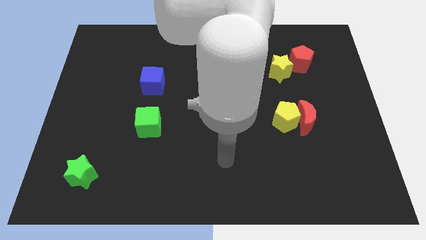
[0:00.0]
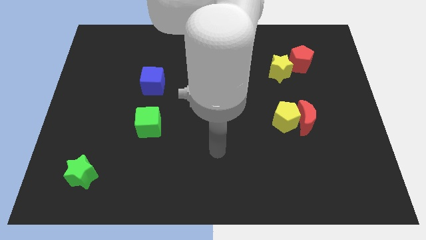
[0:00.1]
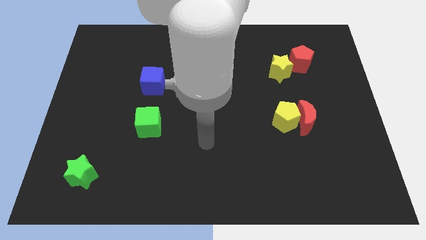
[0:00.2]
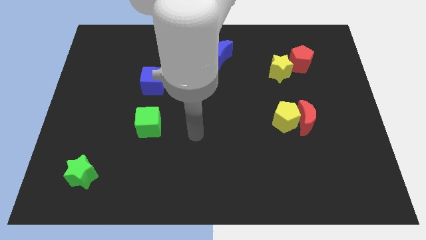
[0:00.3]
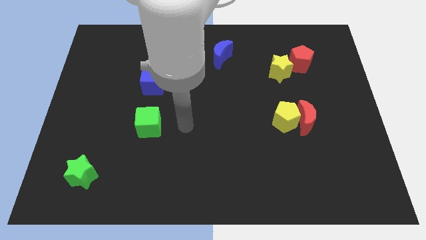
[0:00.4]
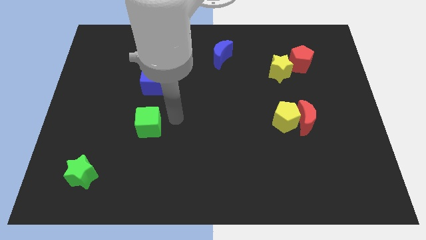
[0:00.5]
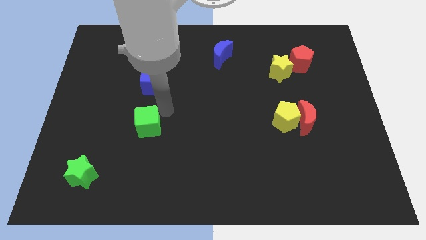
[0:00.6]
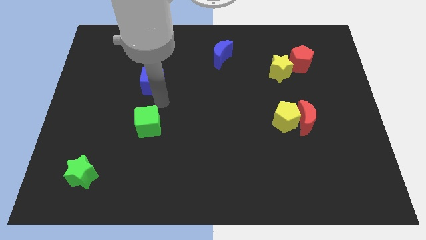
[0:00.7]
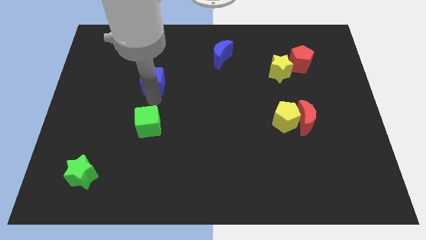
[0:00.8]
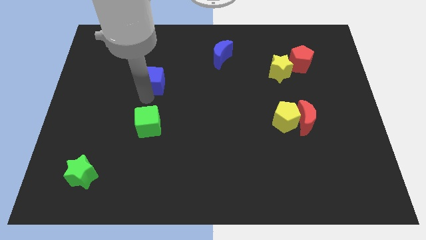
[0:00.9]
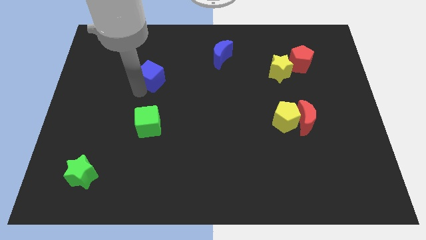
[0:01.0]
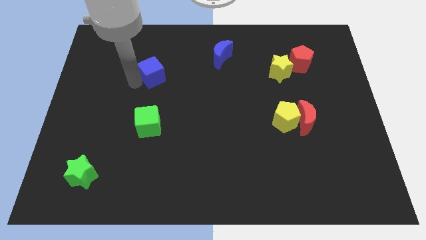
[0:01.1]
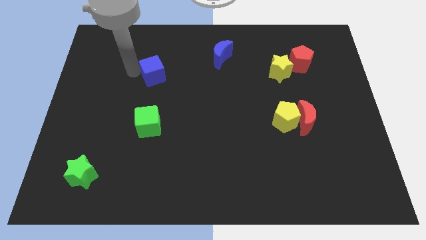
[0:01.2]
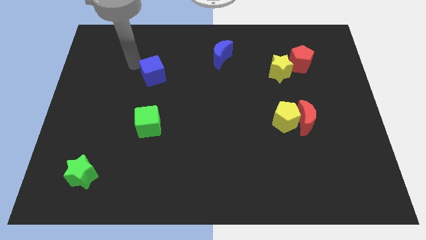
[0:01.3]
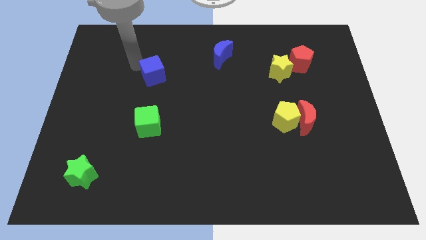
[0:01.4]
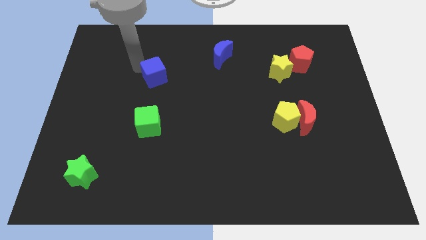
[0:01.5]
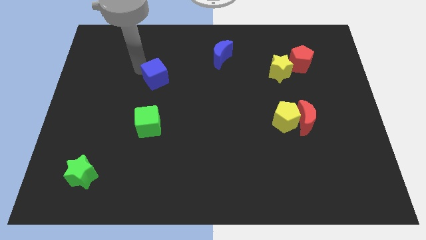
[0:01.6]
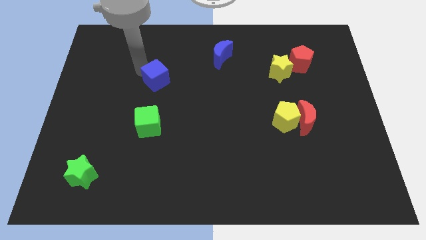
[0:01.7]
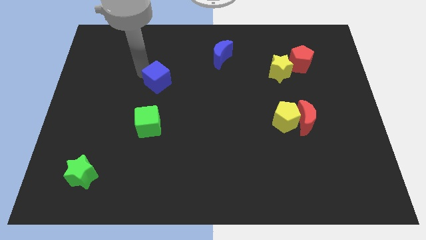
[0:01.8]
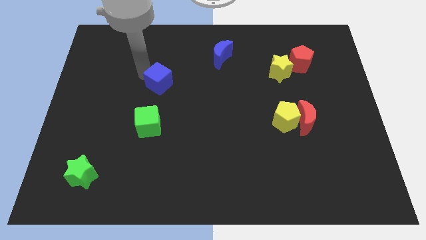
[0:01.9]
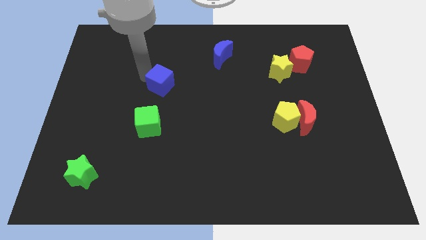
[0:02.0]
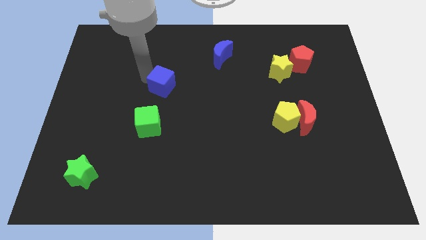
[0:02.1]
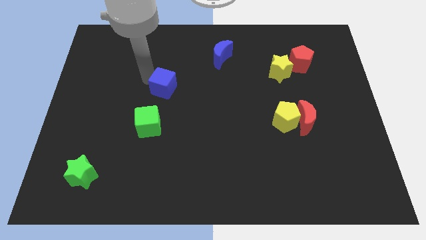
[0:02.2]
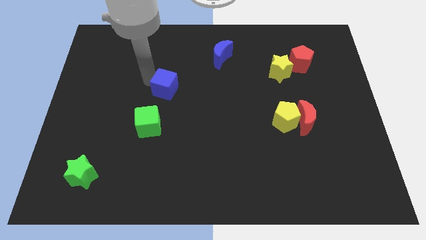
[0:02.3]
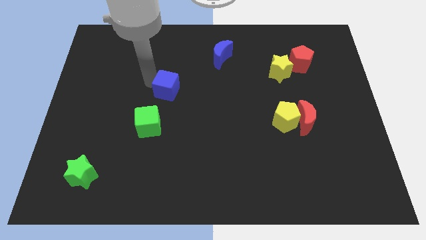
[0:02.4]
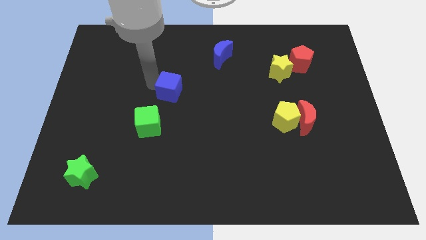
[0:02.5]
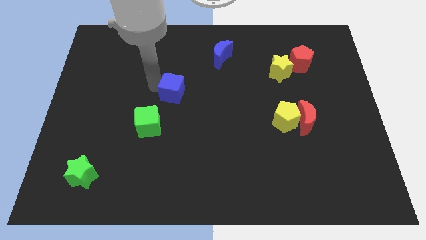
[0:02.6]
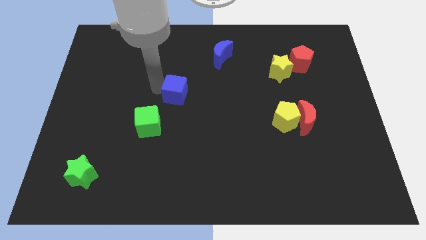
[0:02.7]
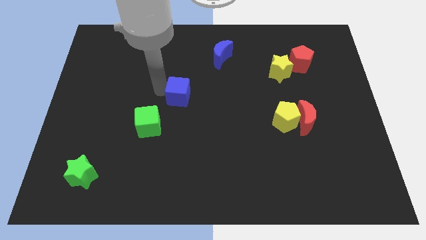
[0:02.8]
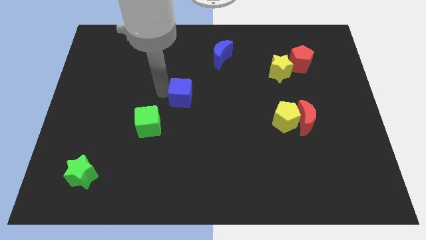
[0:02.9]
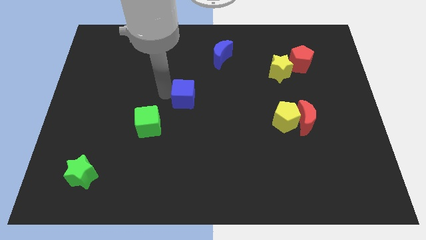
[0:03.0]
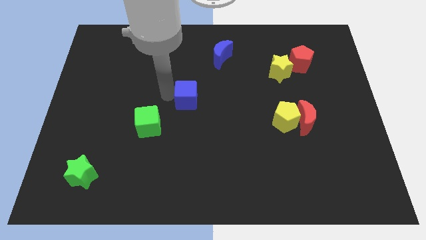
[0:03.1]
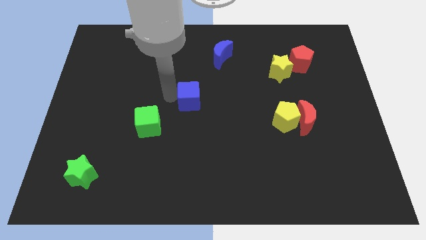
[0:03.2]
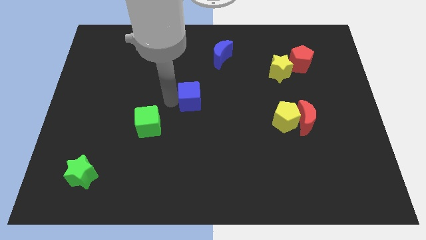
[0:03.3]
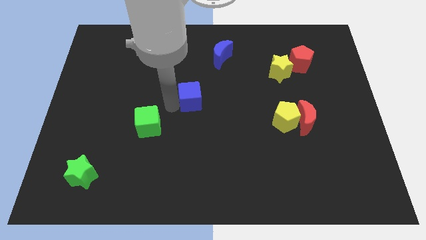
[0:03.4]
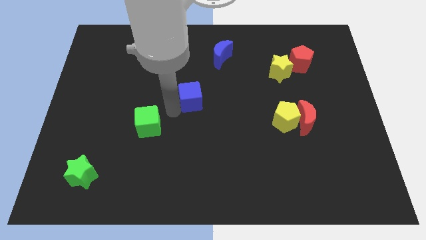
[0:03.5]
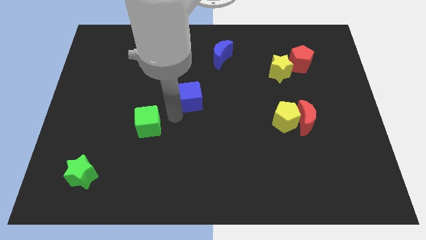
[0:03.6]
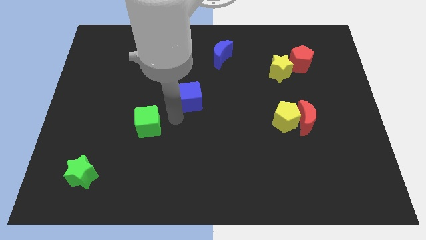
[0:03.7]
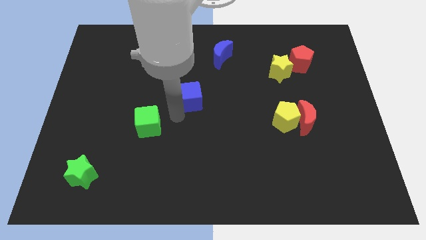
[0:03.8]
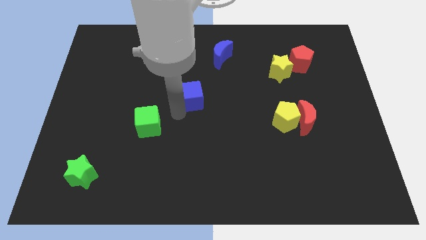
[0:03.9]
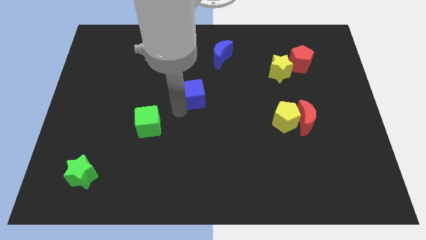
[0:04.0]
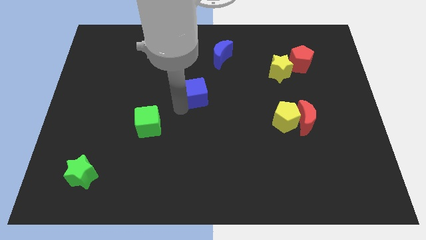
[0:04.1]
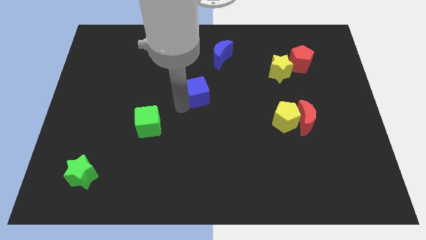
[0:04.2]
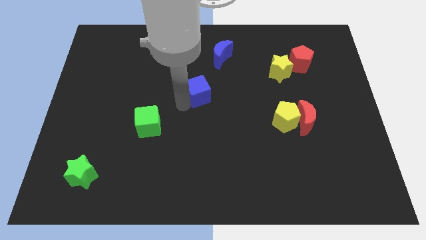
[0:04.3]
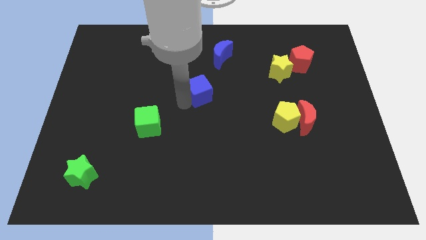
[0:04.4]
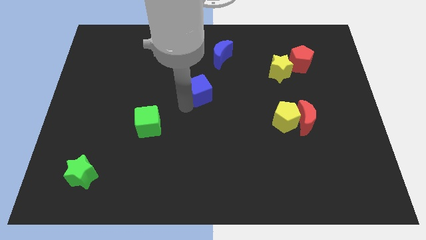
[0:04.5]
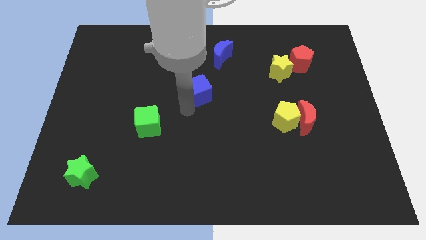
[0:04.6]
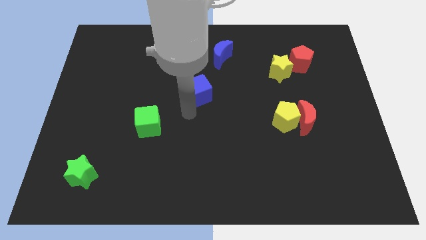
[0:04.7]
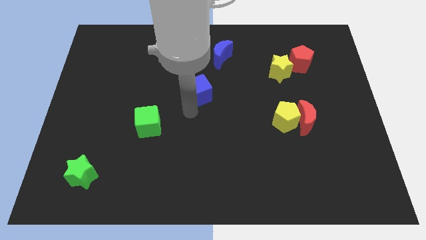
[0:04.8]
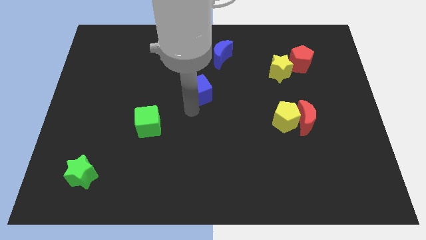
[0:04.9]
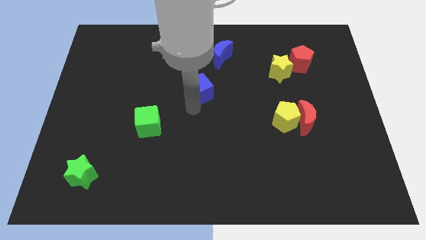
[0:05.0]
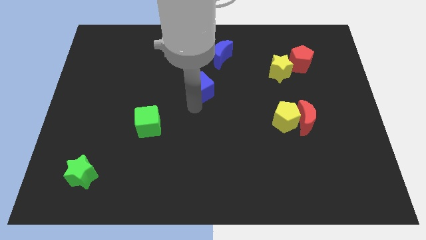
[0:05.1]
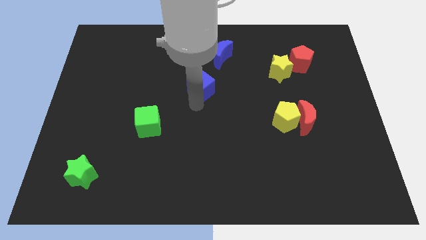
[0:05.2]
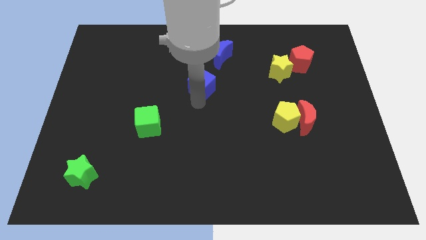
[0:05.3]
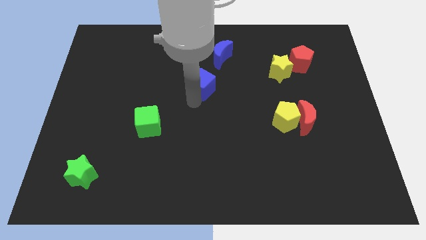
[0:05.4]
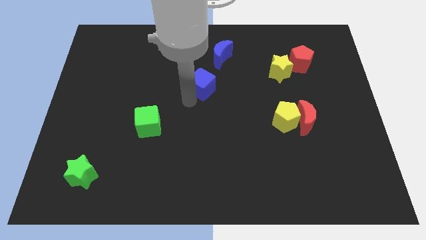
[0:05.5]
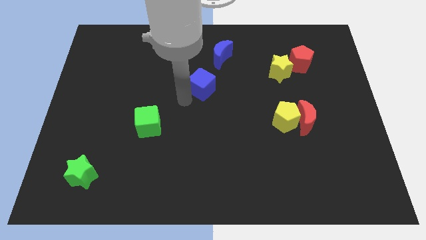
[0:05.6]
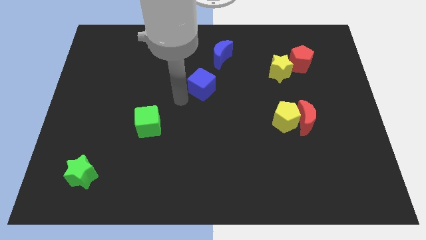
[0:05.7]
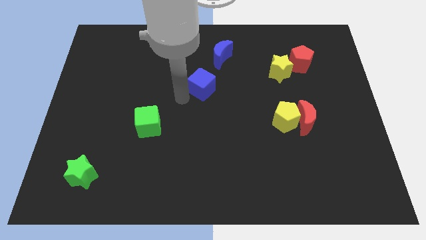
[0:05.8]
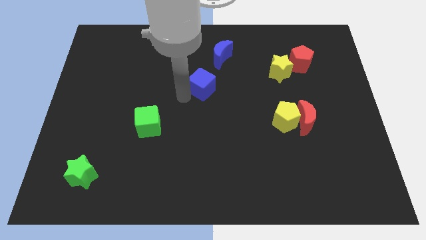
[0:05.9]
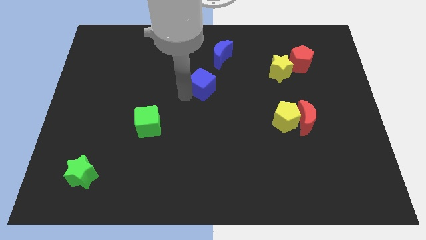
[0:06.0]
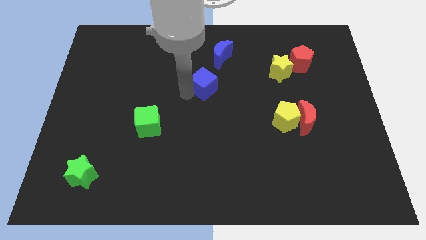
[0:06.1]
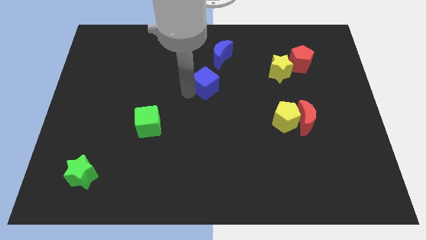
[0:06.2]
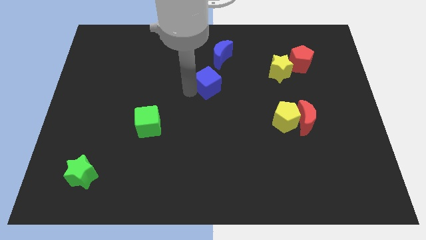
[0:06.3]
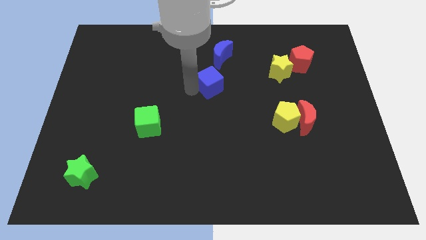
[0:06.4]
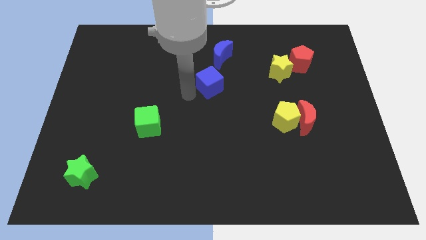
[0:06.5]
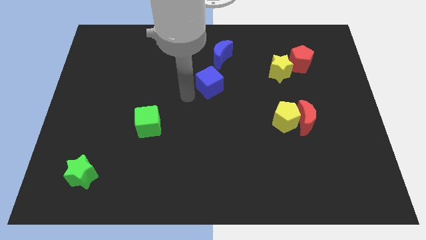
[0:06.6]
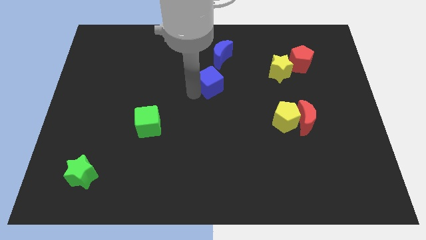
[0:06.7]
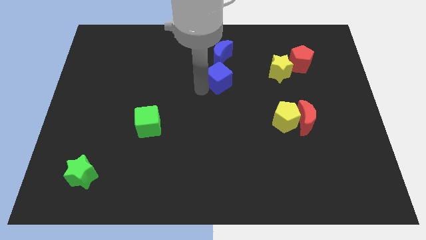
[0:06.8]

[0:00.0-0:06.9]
slide the blue cube just left of the yellow star

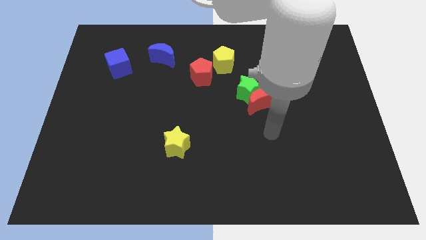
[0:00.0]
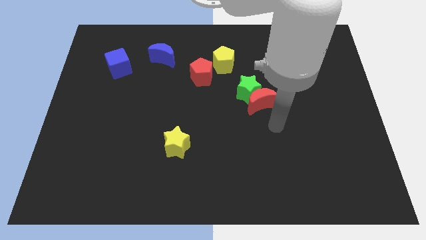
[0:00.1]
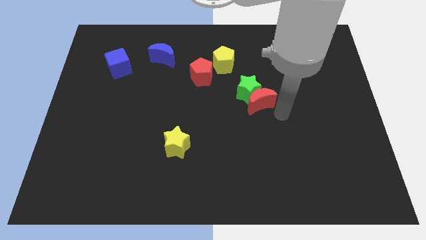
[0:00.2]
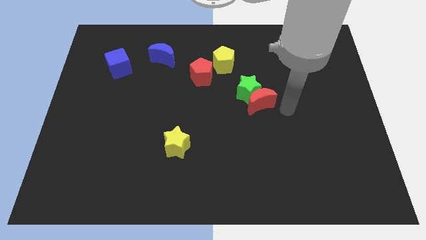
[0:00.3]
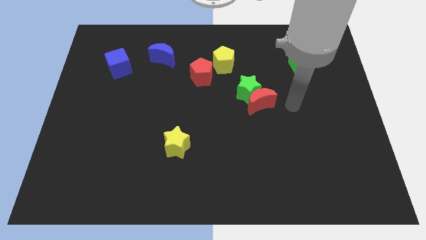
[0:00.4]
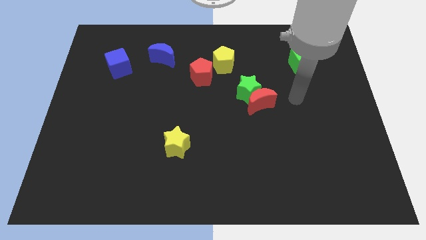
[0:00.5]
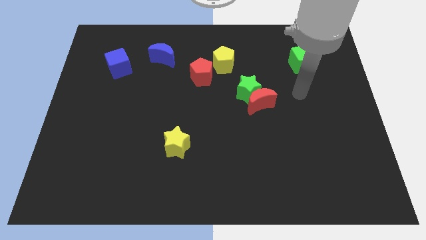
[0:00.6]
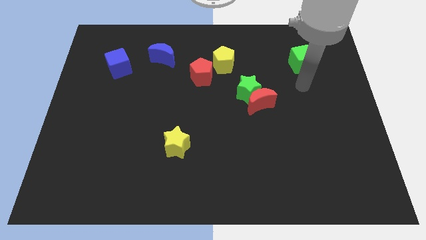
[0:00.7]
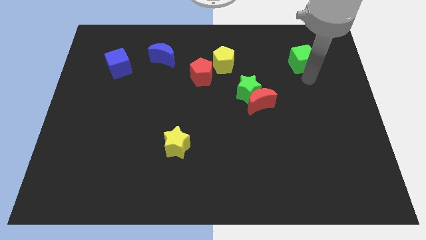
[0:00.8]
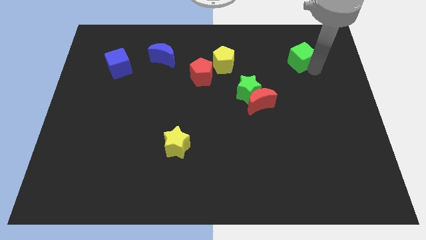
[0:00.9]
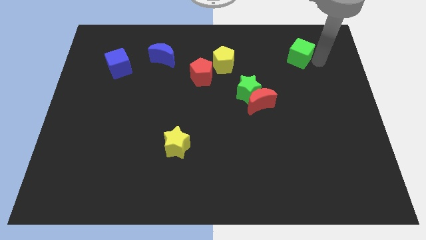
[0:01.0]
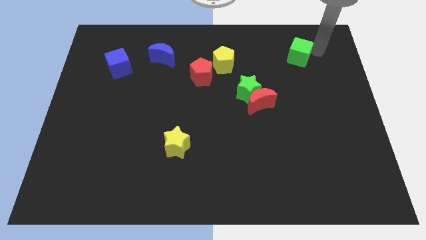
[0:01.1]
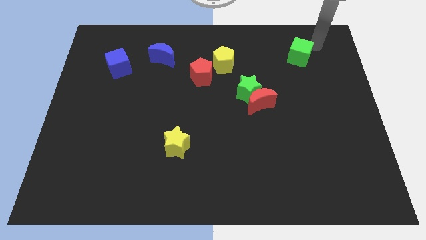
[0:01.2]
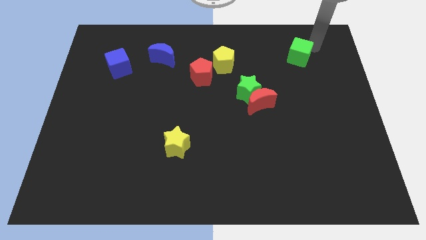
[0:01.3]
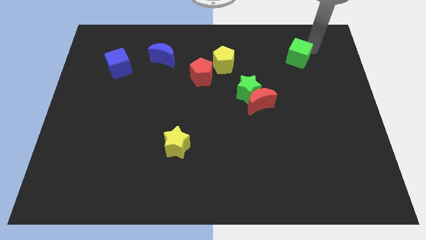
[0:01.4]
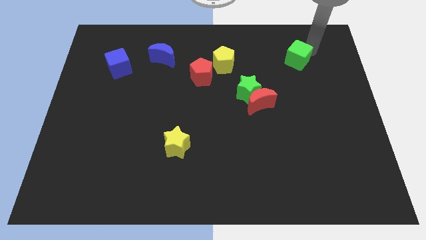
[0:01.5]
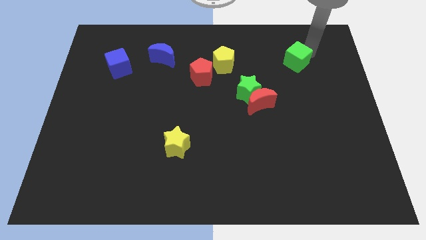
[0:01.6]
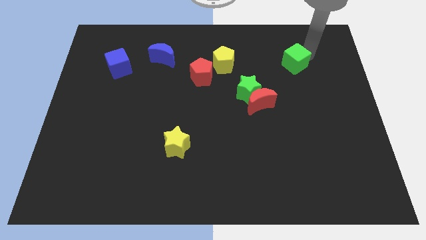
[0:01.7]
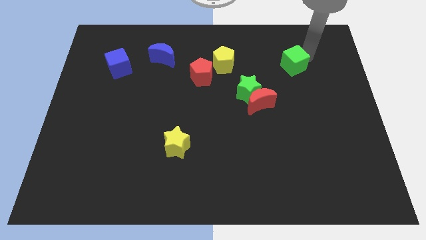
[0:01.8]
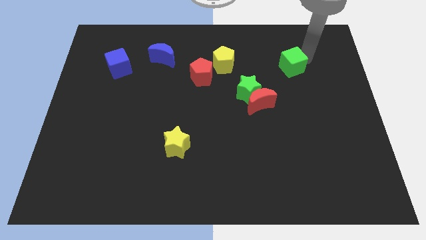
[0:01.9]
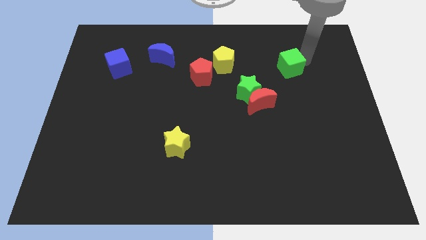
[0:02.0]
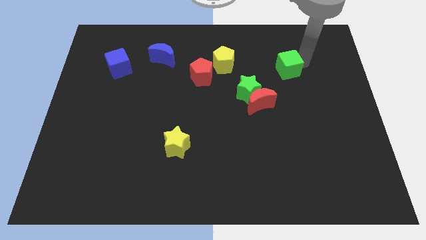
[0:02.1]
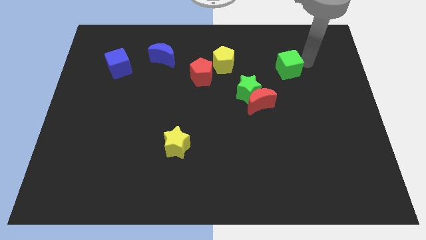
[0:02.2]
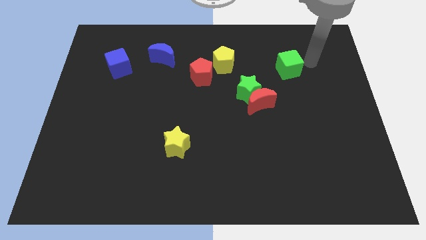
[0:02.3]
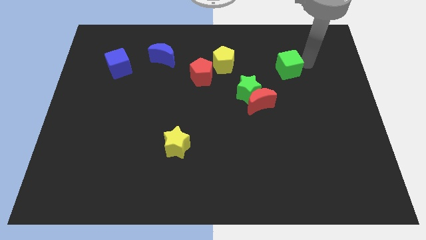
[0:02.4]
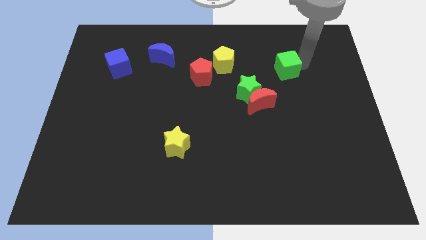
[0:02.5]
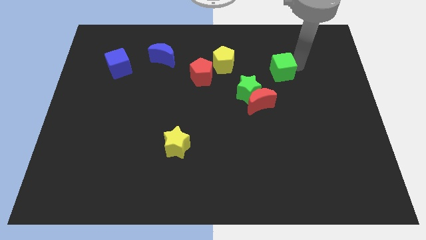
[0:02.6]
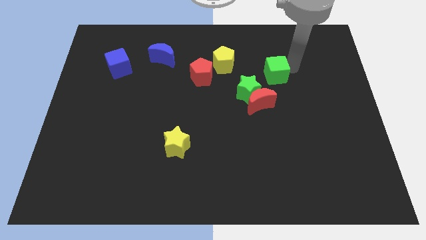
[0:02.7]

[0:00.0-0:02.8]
slide the green cube to the top side of the red moon
